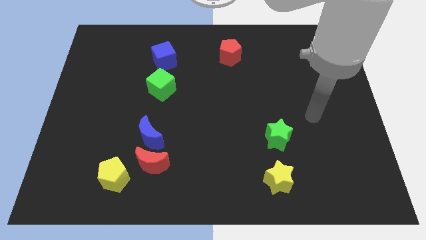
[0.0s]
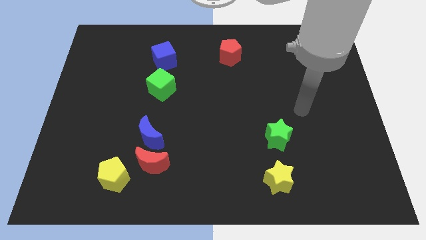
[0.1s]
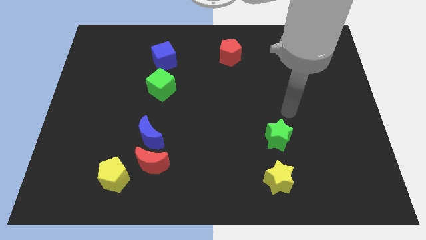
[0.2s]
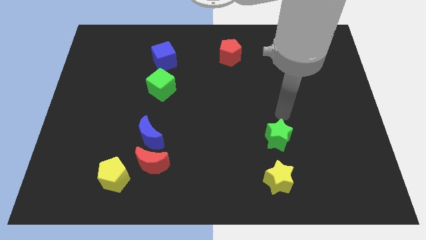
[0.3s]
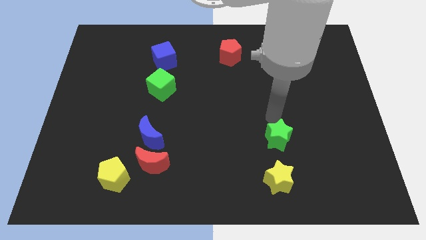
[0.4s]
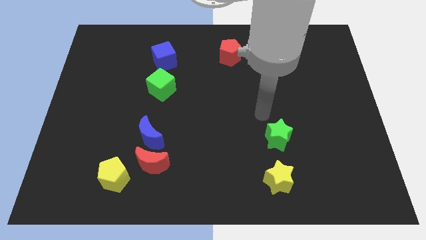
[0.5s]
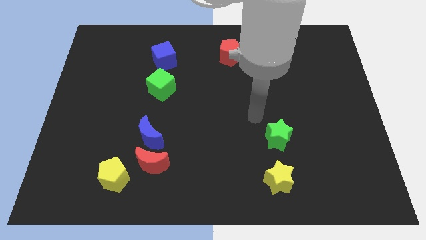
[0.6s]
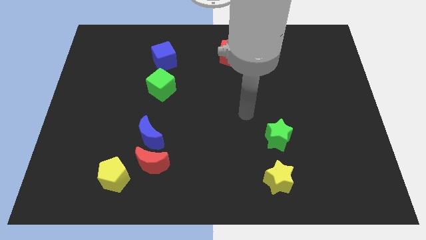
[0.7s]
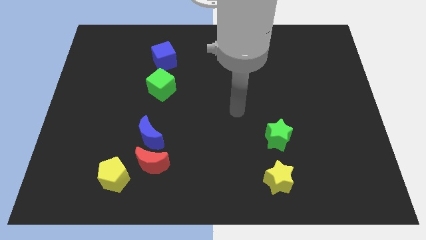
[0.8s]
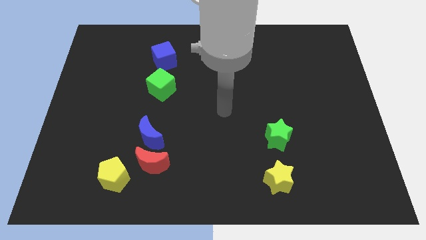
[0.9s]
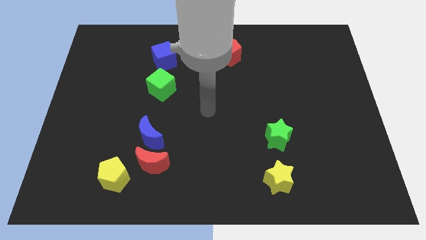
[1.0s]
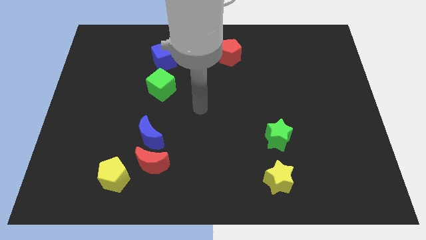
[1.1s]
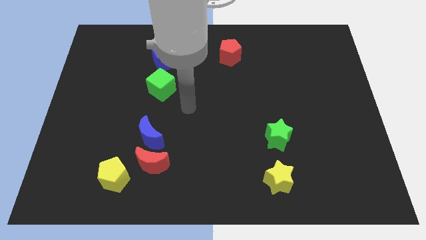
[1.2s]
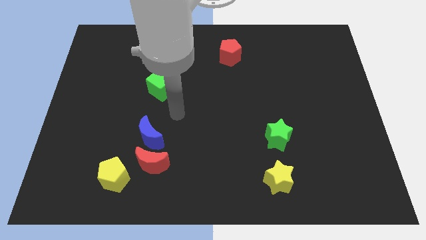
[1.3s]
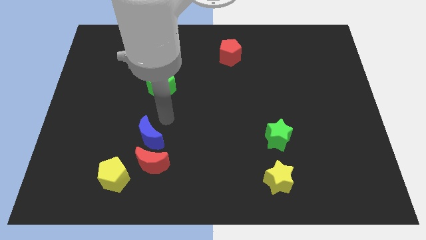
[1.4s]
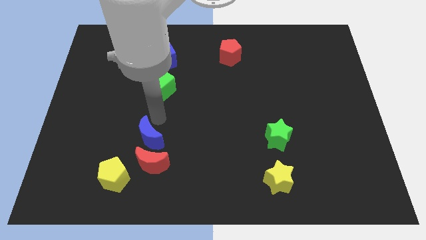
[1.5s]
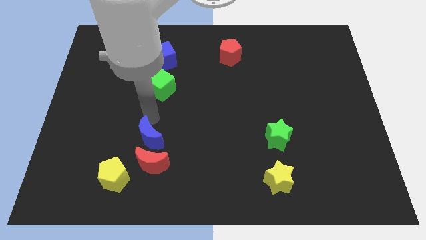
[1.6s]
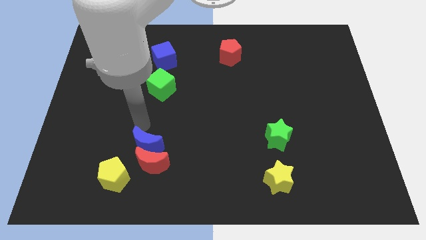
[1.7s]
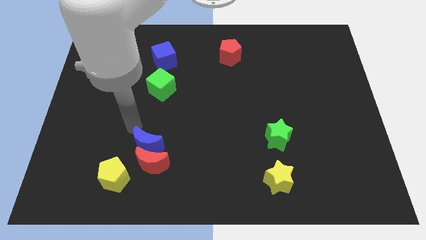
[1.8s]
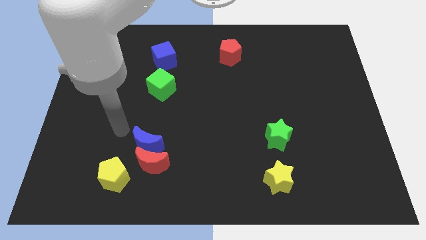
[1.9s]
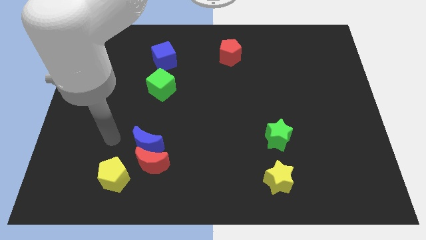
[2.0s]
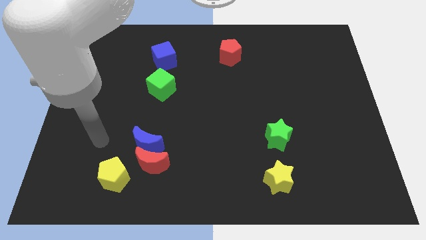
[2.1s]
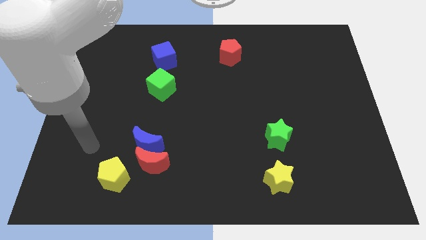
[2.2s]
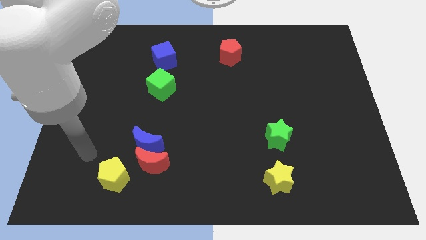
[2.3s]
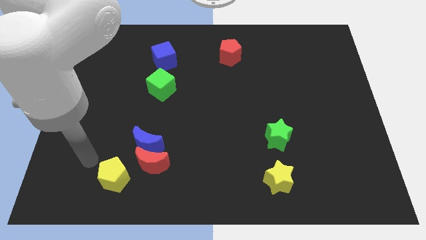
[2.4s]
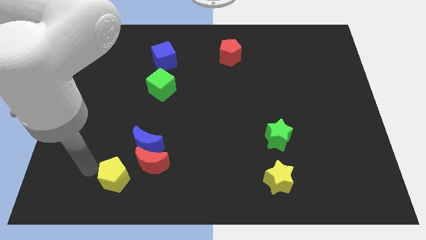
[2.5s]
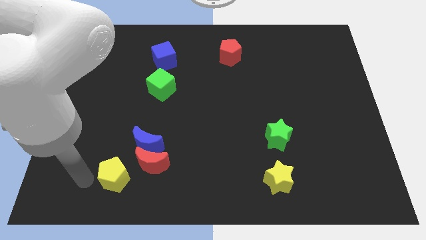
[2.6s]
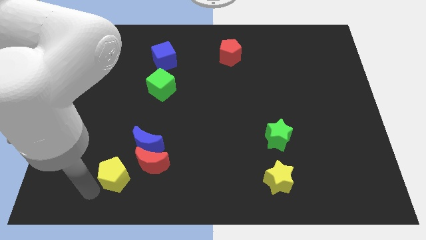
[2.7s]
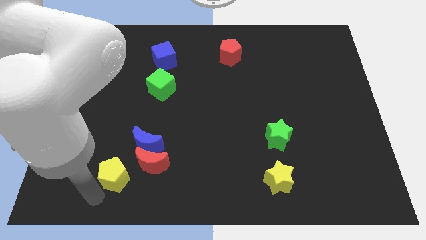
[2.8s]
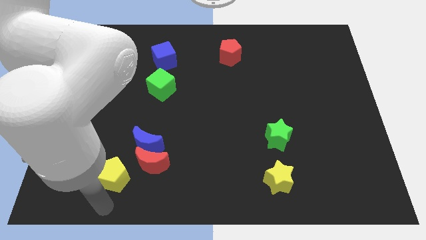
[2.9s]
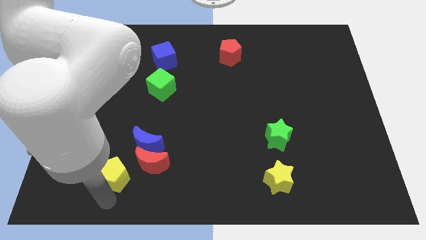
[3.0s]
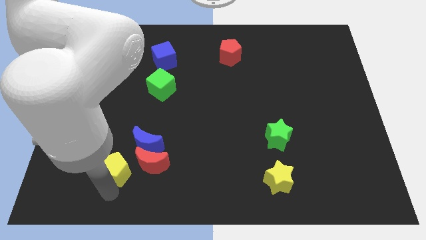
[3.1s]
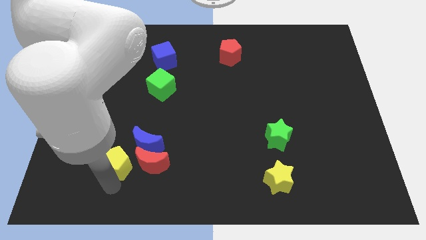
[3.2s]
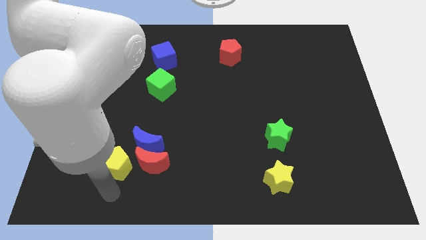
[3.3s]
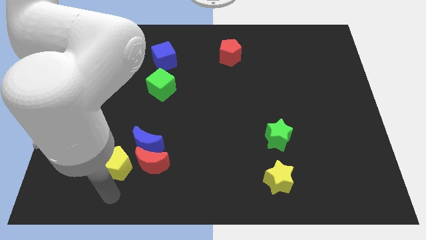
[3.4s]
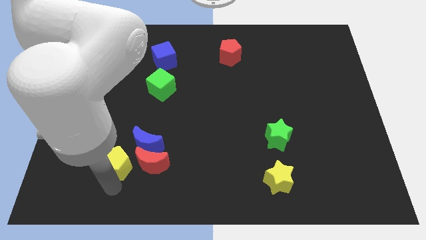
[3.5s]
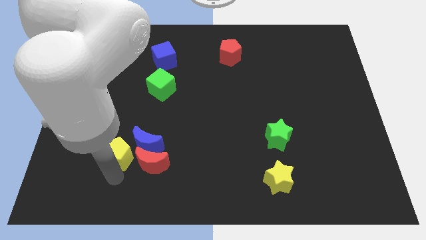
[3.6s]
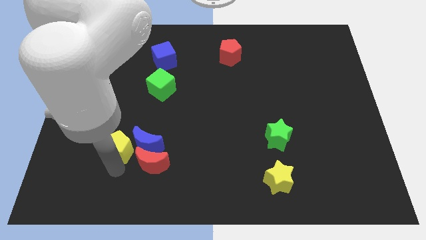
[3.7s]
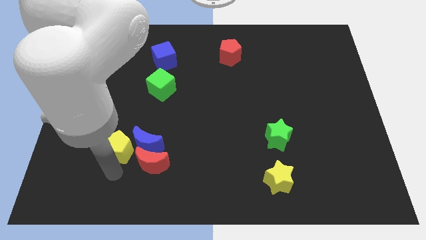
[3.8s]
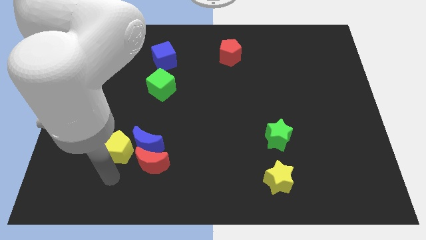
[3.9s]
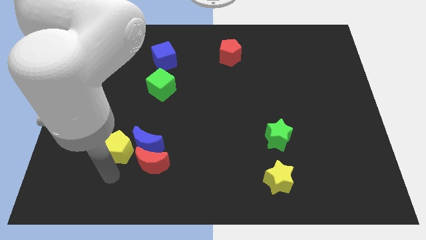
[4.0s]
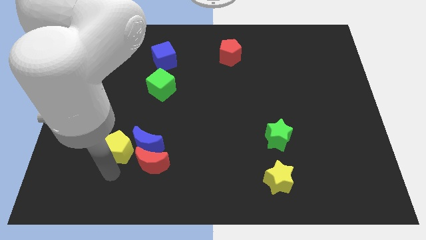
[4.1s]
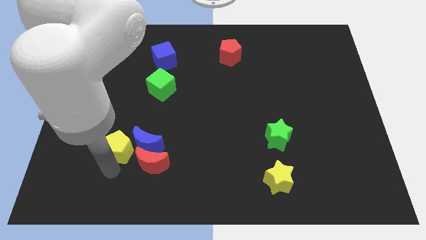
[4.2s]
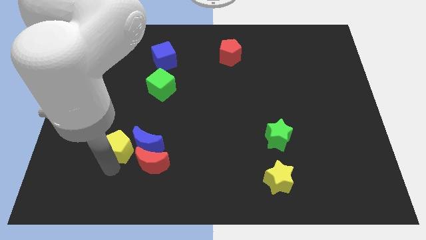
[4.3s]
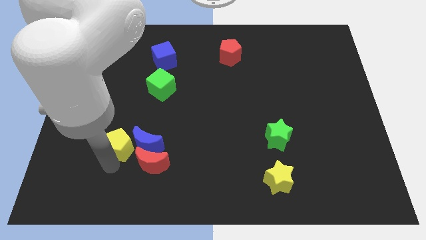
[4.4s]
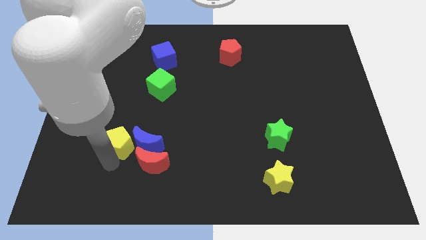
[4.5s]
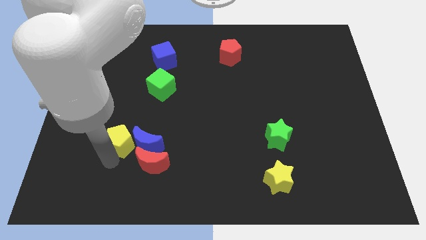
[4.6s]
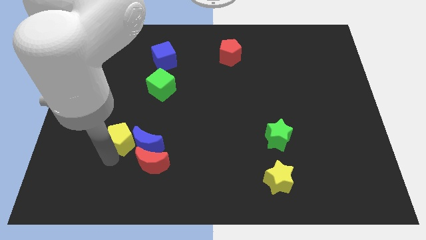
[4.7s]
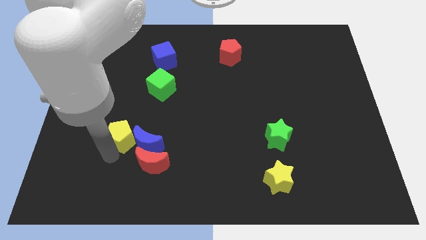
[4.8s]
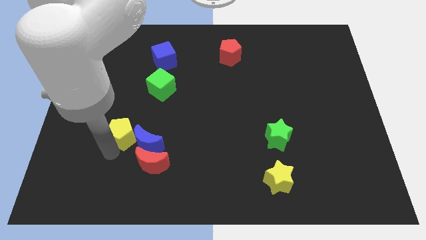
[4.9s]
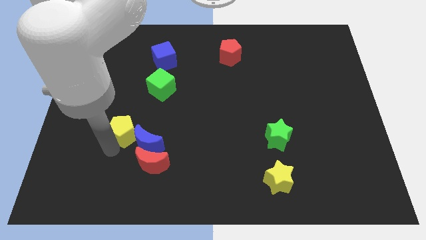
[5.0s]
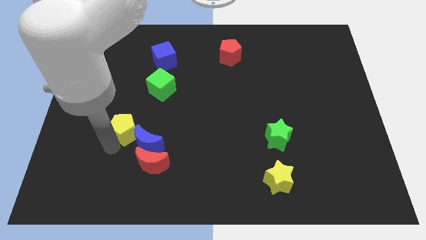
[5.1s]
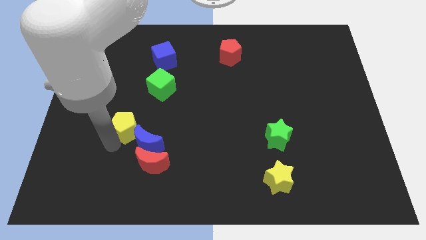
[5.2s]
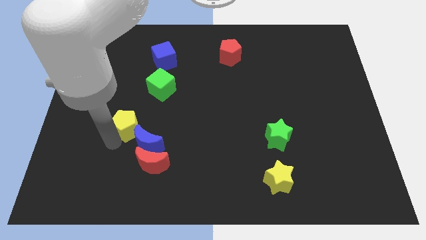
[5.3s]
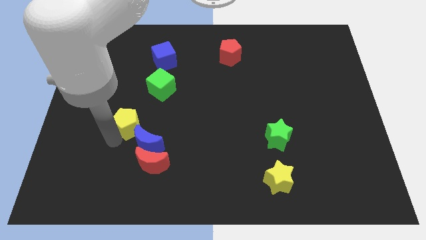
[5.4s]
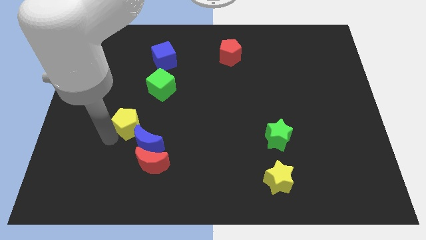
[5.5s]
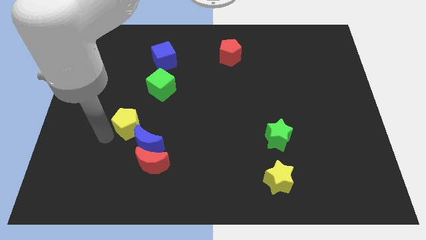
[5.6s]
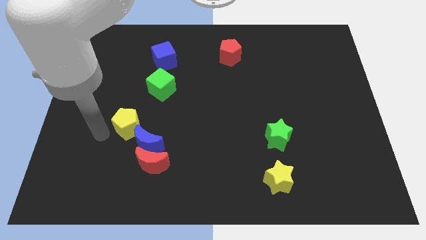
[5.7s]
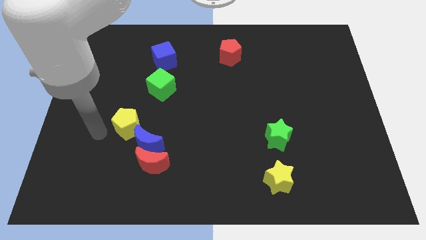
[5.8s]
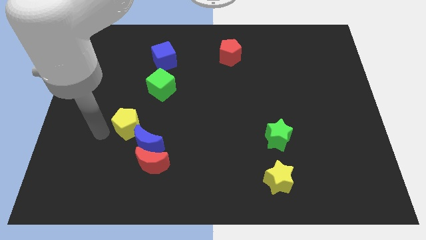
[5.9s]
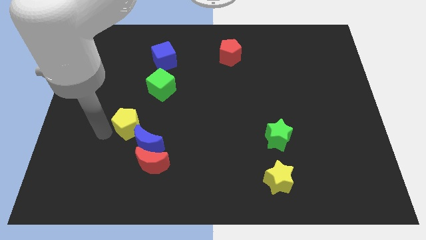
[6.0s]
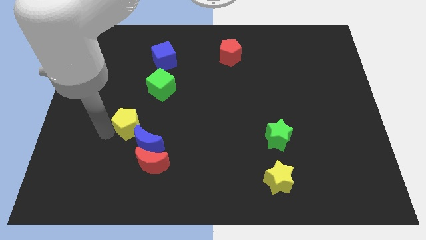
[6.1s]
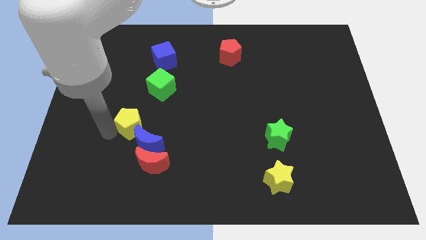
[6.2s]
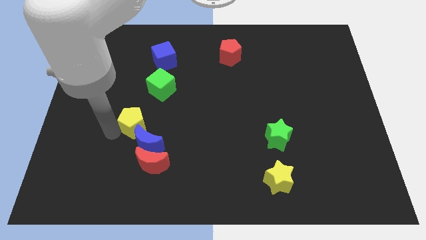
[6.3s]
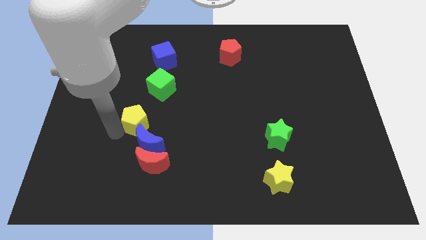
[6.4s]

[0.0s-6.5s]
push the yellow pentagon to the bottom side of the green cube
